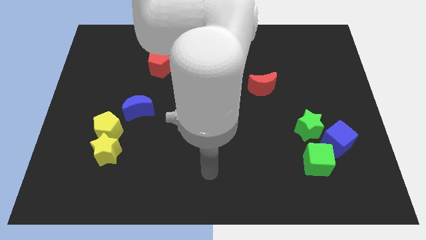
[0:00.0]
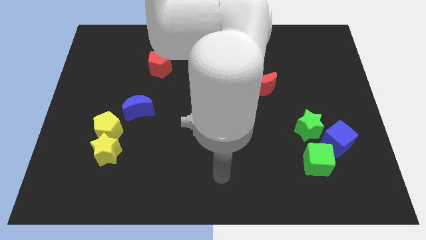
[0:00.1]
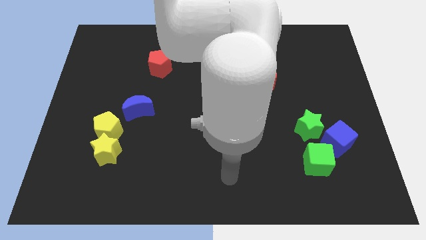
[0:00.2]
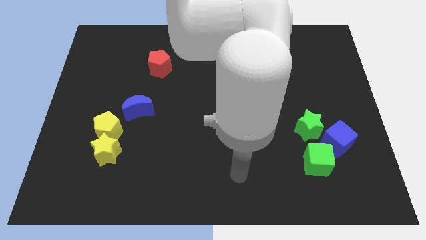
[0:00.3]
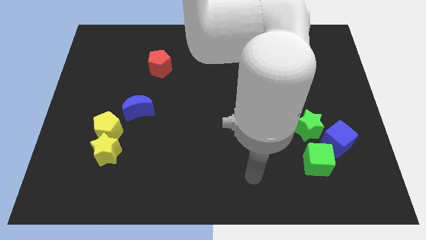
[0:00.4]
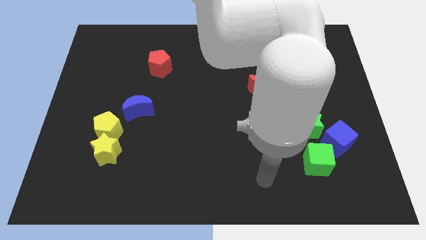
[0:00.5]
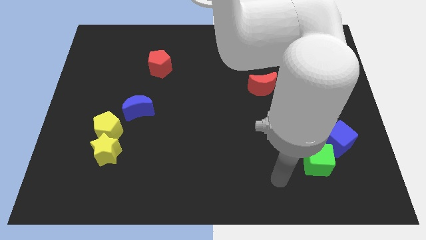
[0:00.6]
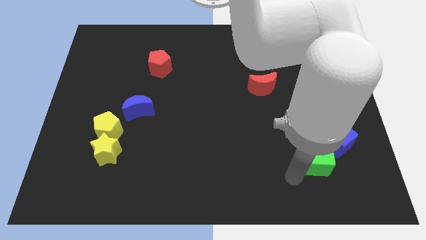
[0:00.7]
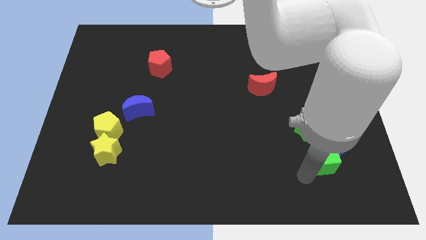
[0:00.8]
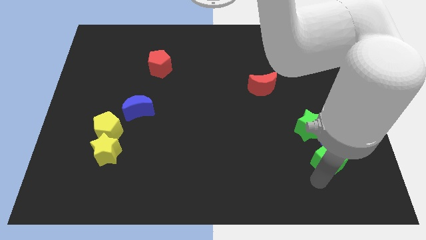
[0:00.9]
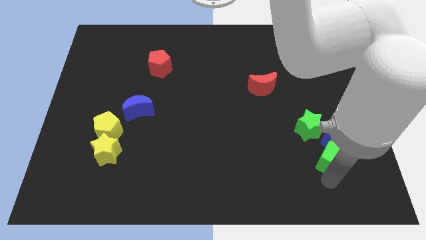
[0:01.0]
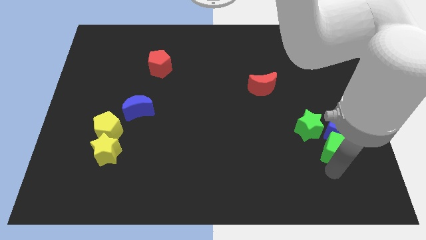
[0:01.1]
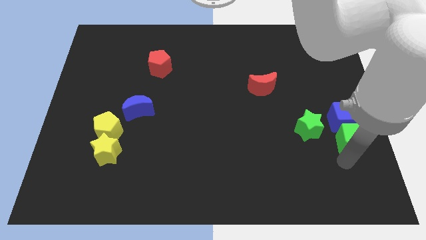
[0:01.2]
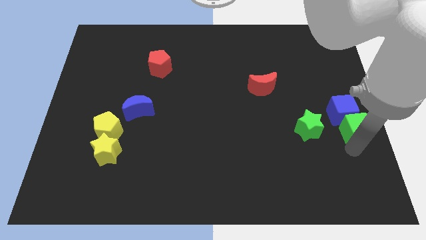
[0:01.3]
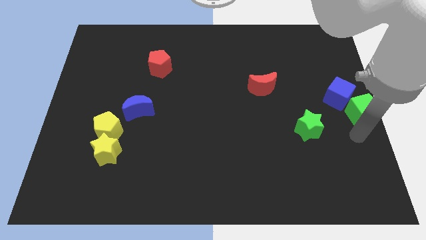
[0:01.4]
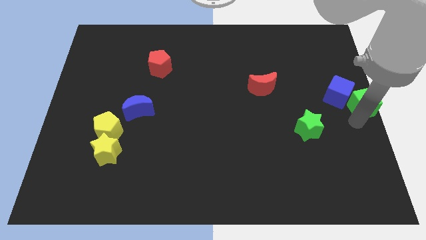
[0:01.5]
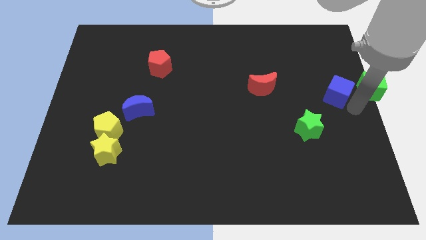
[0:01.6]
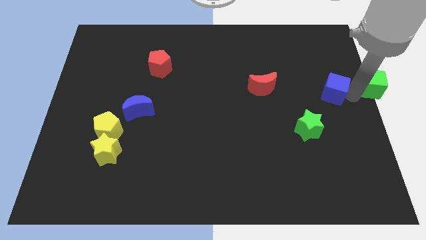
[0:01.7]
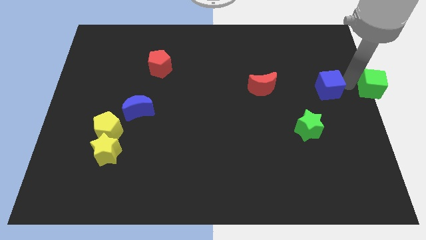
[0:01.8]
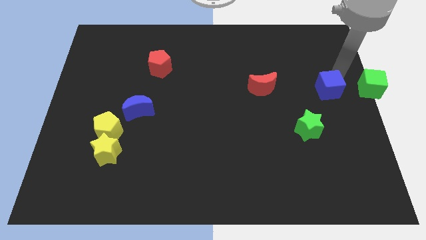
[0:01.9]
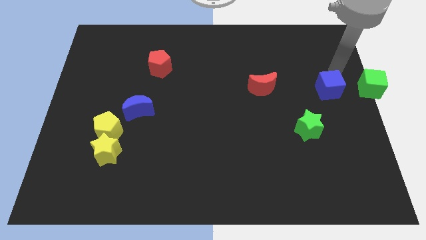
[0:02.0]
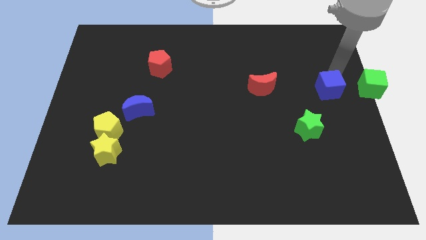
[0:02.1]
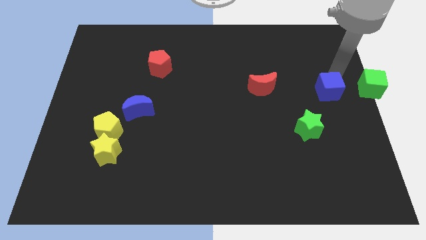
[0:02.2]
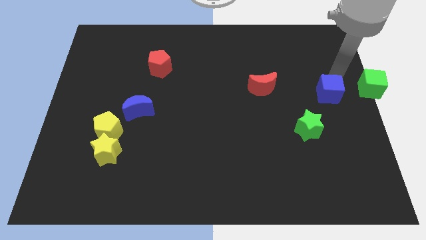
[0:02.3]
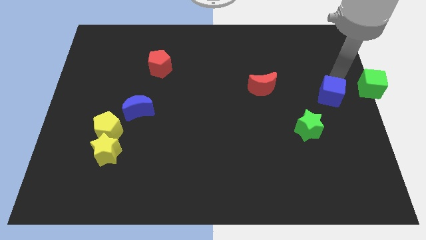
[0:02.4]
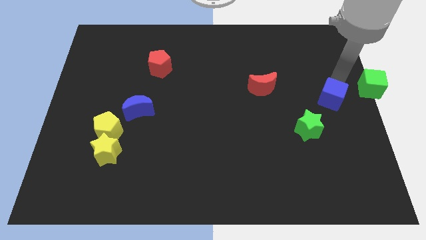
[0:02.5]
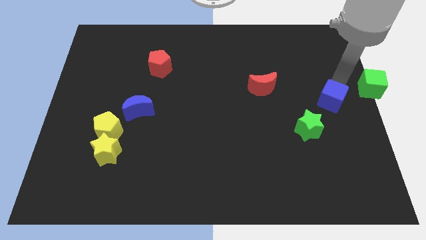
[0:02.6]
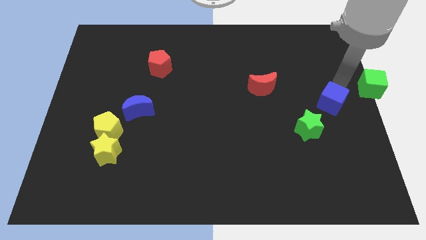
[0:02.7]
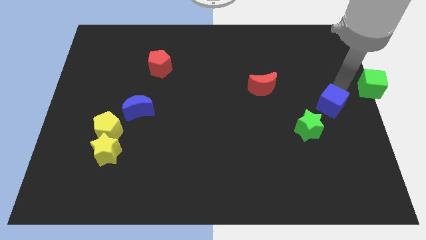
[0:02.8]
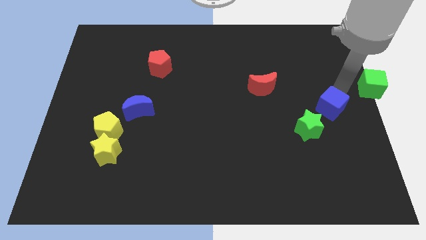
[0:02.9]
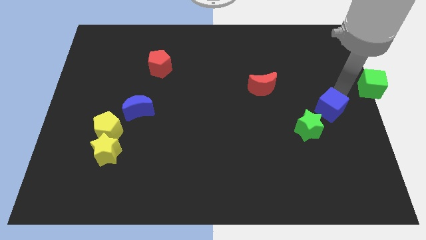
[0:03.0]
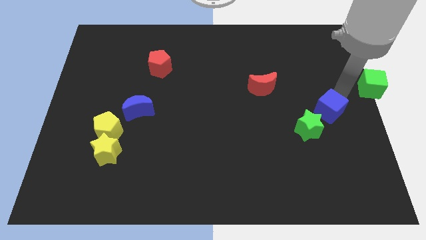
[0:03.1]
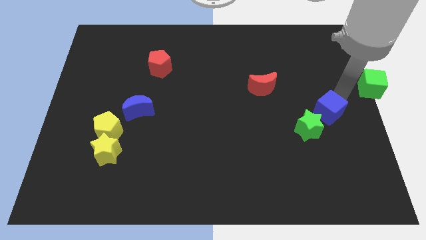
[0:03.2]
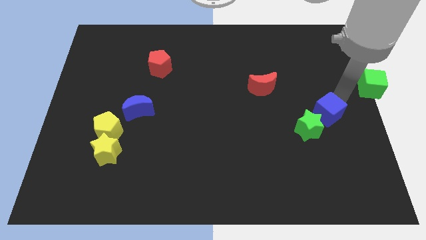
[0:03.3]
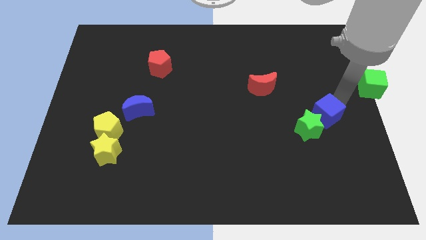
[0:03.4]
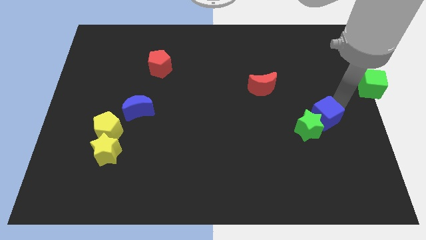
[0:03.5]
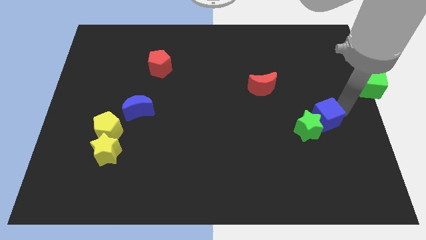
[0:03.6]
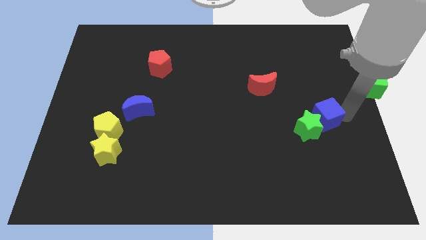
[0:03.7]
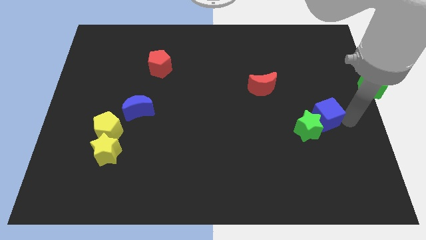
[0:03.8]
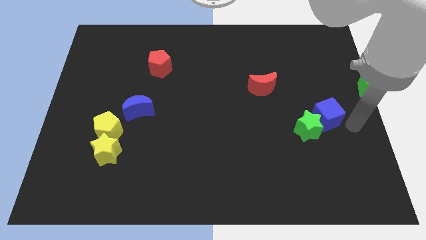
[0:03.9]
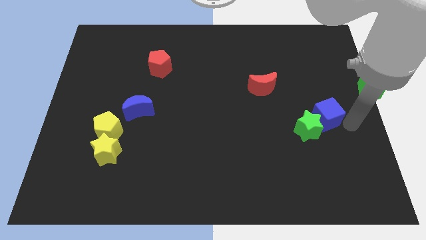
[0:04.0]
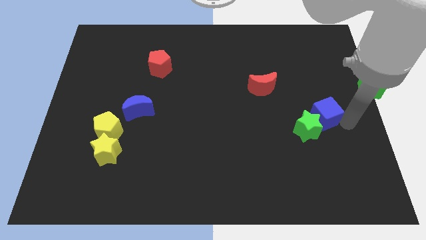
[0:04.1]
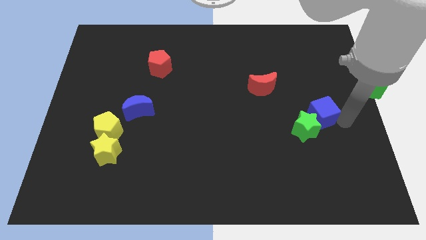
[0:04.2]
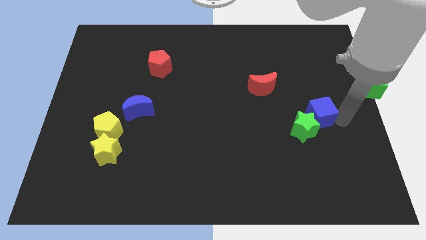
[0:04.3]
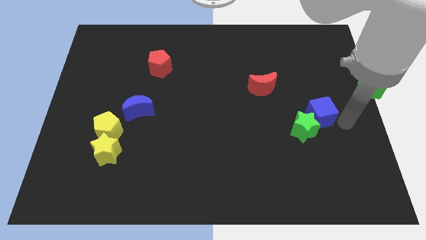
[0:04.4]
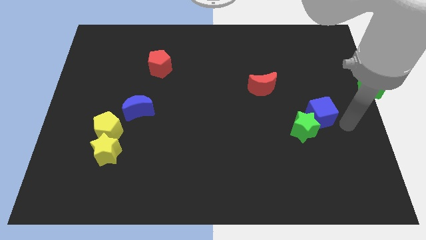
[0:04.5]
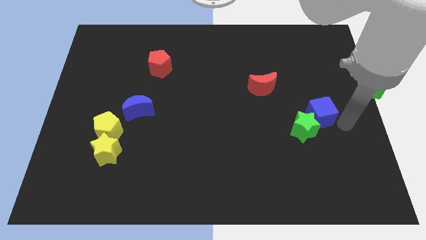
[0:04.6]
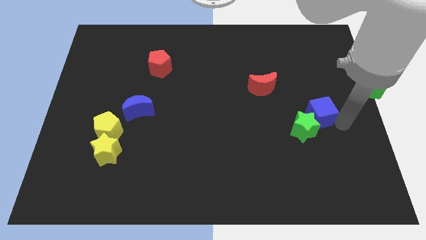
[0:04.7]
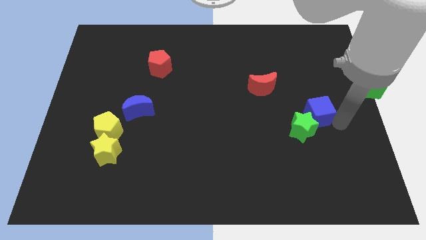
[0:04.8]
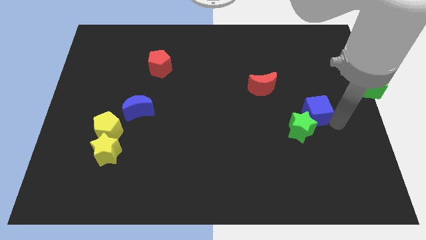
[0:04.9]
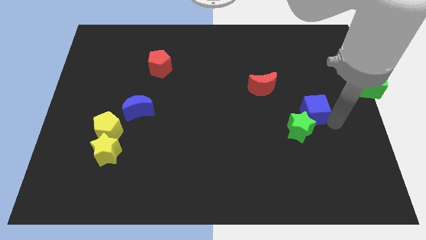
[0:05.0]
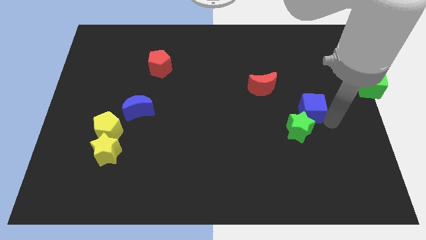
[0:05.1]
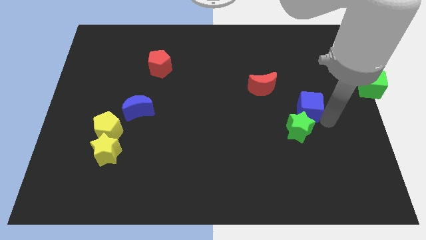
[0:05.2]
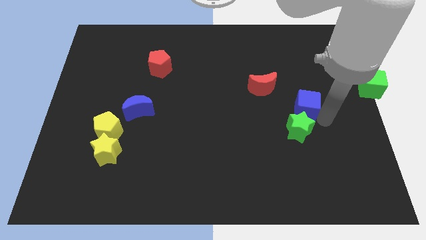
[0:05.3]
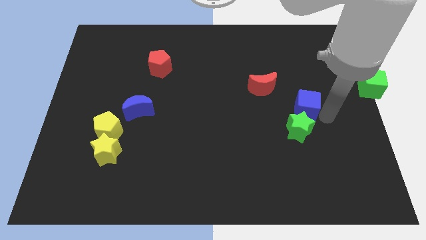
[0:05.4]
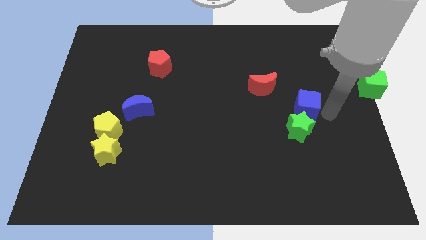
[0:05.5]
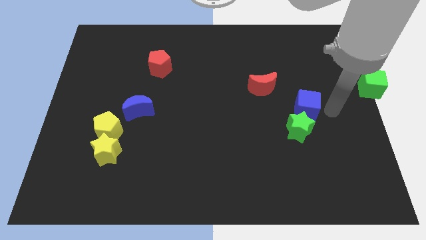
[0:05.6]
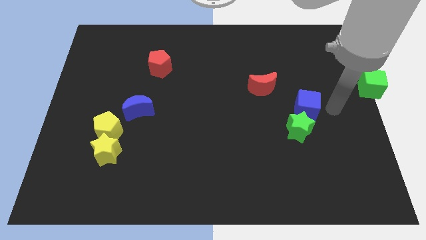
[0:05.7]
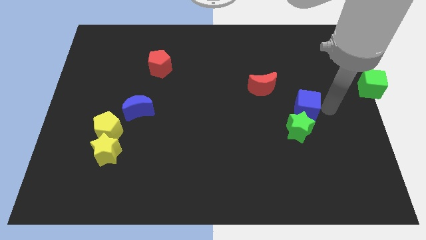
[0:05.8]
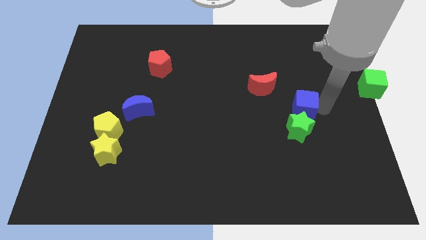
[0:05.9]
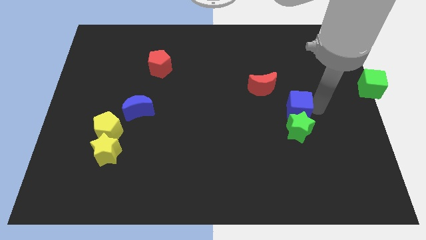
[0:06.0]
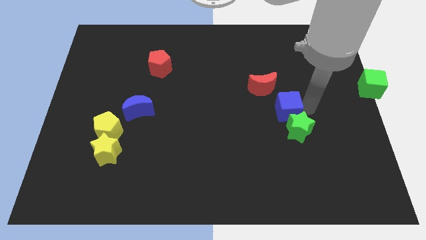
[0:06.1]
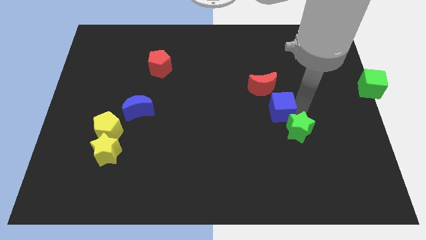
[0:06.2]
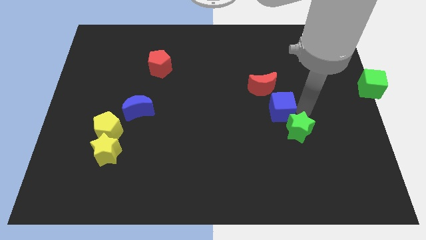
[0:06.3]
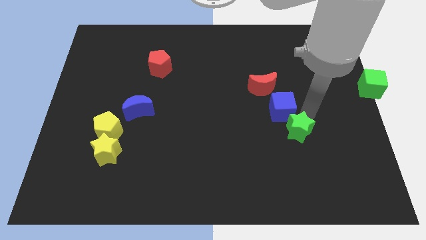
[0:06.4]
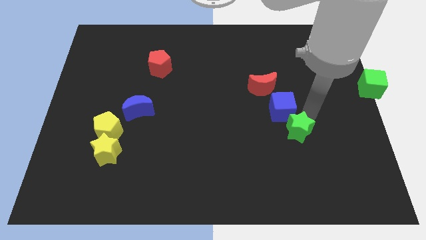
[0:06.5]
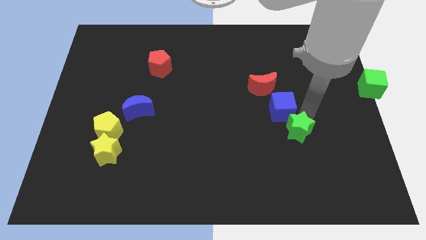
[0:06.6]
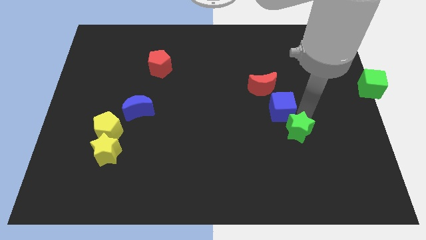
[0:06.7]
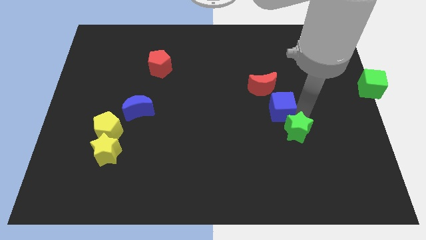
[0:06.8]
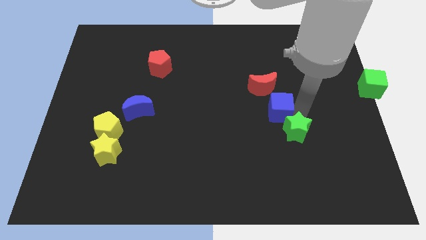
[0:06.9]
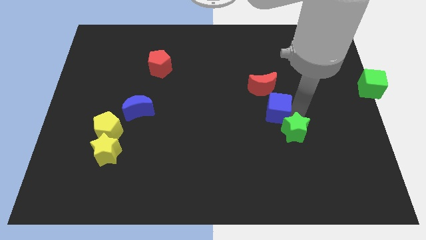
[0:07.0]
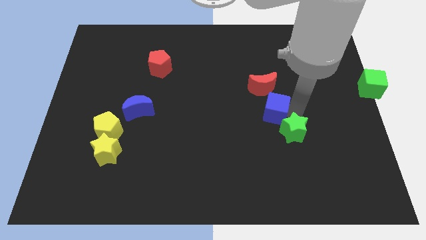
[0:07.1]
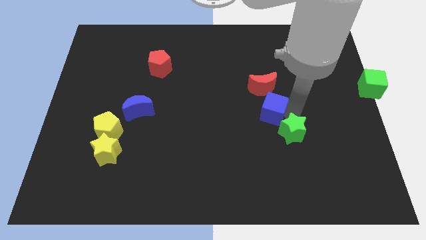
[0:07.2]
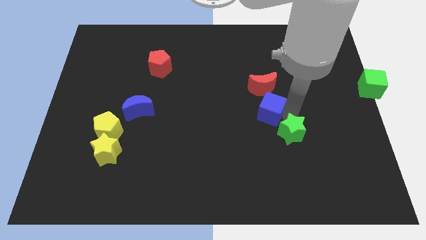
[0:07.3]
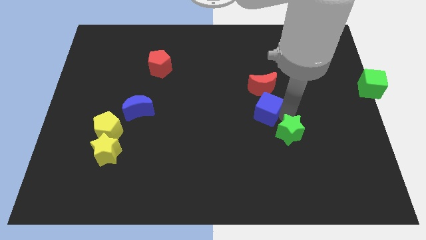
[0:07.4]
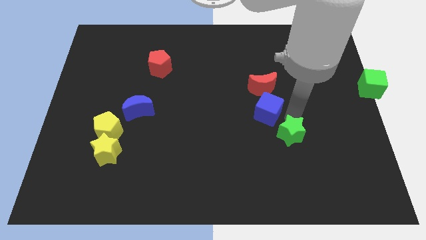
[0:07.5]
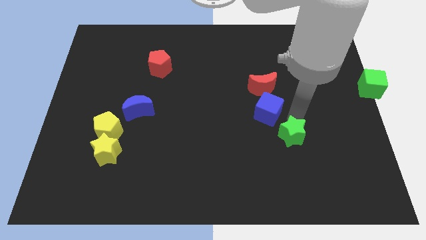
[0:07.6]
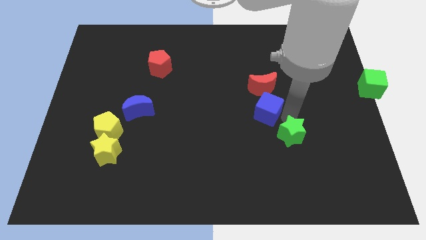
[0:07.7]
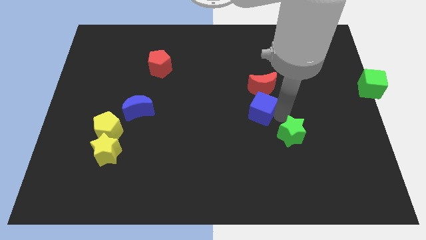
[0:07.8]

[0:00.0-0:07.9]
put the blue cube to the bottom left of the red moon
